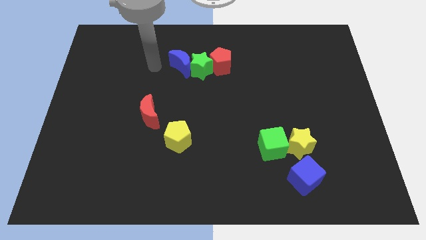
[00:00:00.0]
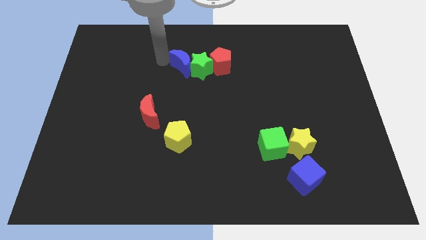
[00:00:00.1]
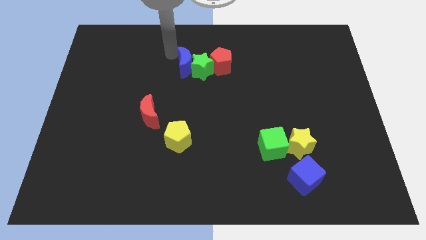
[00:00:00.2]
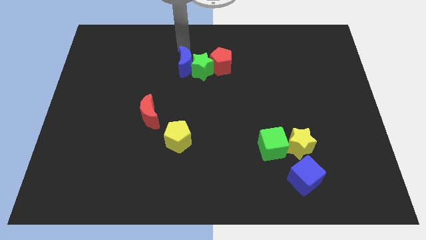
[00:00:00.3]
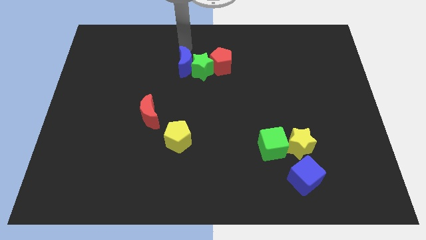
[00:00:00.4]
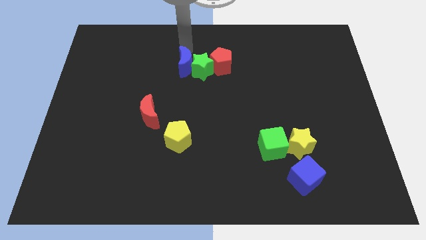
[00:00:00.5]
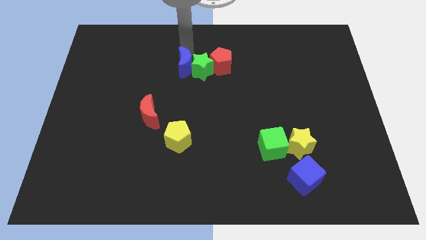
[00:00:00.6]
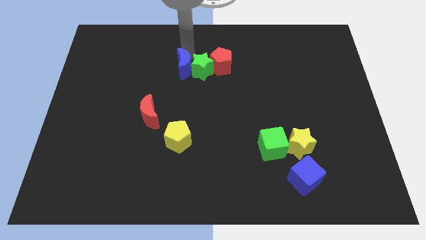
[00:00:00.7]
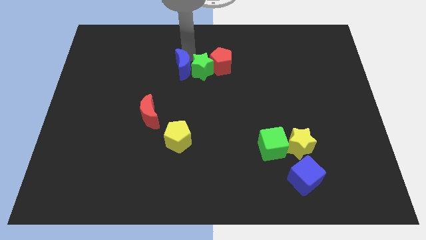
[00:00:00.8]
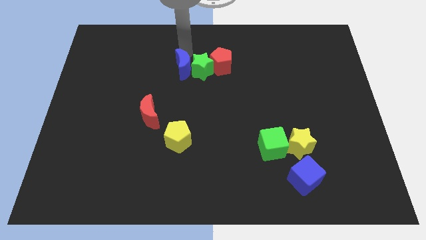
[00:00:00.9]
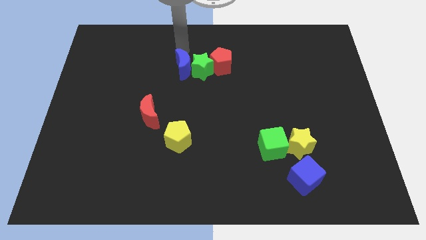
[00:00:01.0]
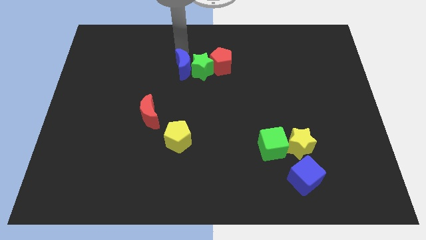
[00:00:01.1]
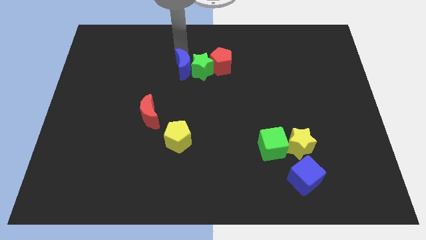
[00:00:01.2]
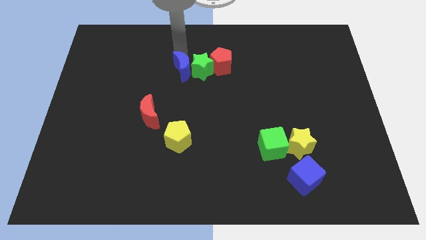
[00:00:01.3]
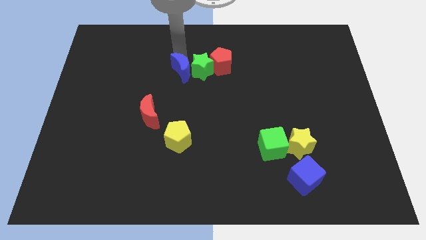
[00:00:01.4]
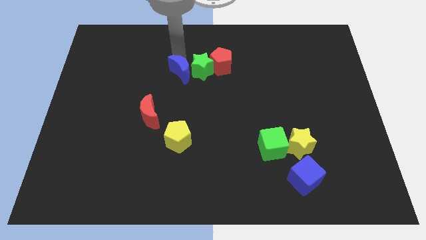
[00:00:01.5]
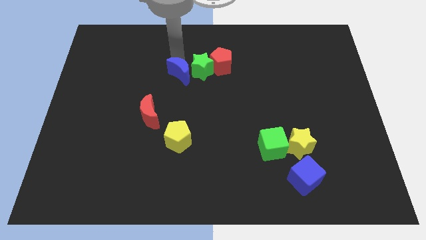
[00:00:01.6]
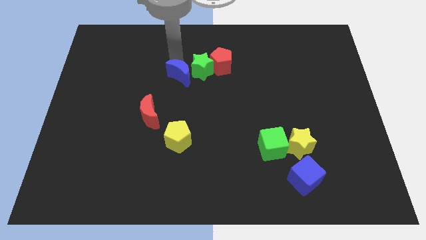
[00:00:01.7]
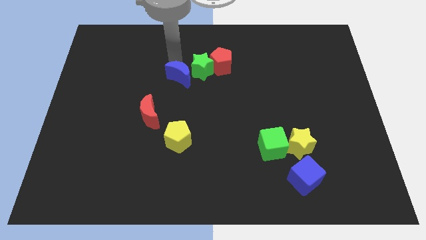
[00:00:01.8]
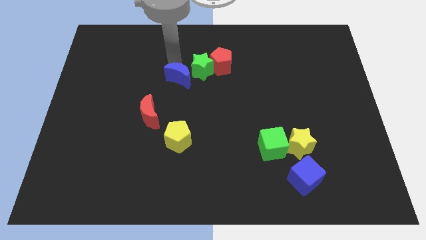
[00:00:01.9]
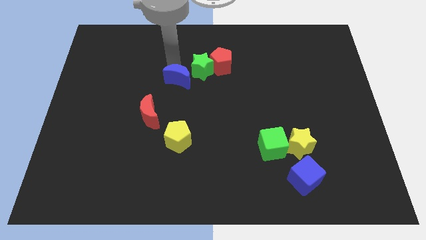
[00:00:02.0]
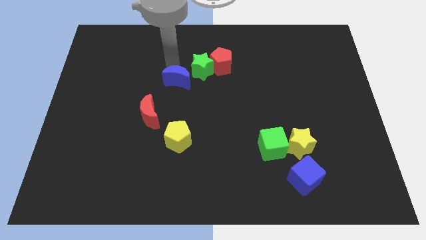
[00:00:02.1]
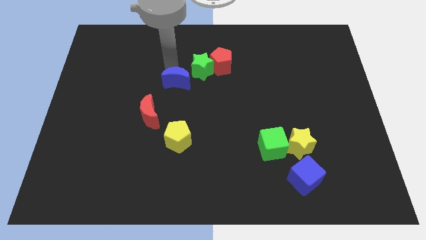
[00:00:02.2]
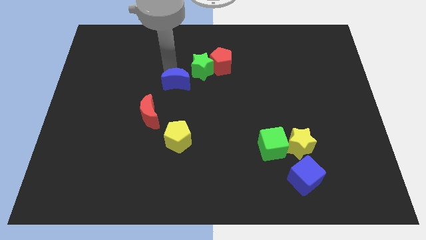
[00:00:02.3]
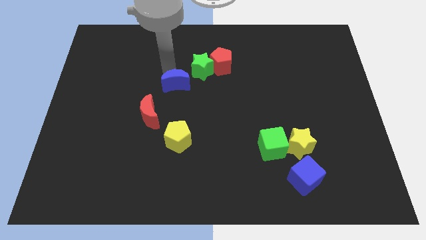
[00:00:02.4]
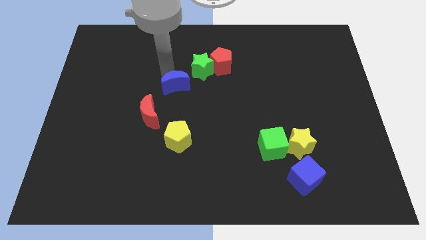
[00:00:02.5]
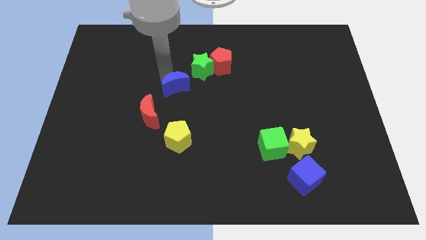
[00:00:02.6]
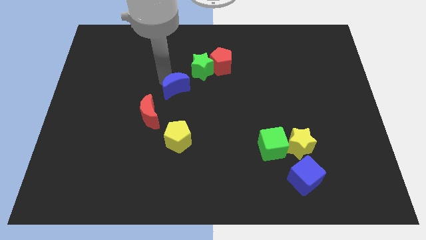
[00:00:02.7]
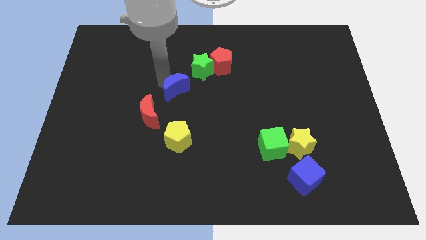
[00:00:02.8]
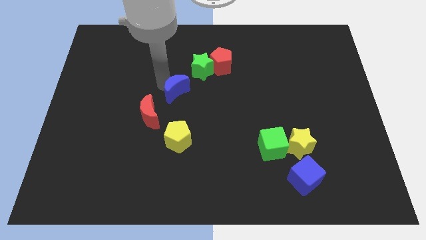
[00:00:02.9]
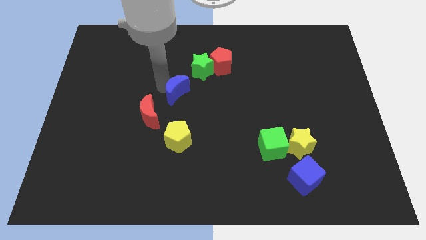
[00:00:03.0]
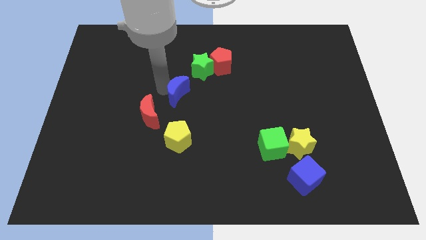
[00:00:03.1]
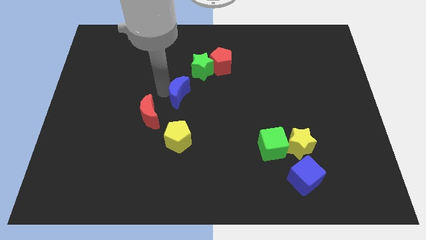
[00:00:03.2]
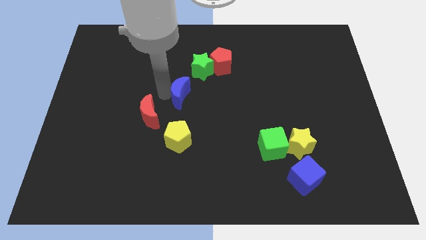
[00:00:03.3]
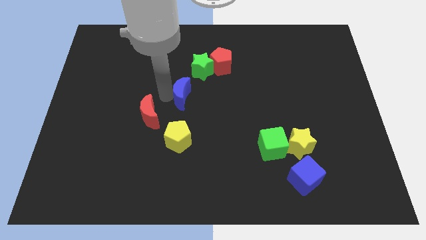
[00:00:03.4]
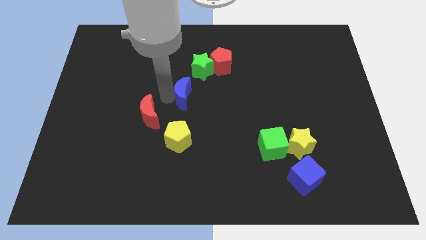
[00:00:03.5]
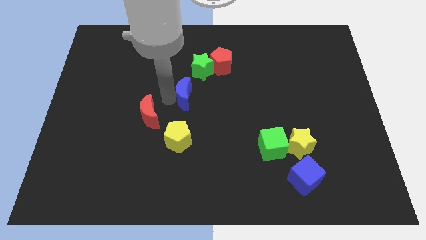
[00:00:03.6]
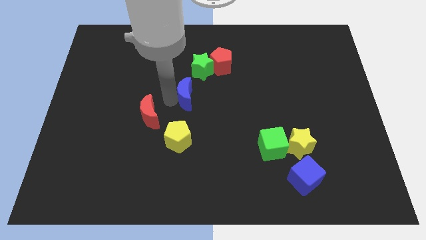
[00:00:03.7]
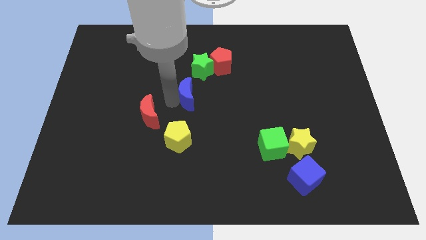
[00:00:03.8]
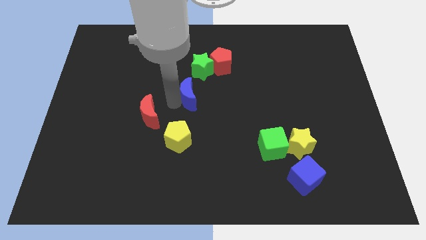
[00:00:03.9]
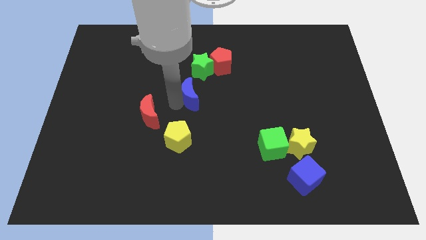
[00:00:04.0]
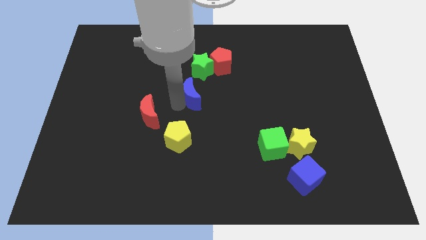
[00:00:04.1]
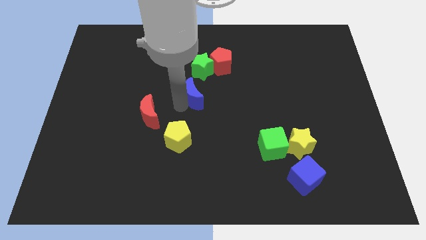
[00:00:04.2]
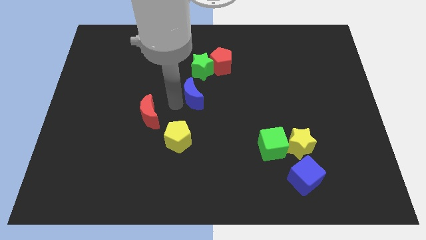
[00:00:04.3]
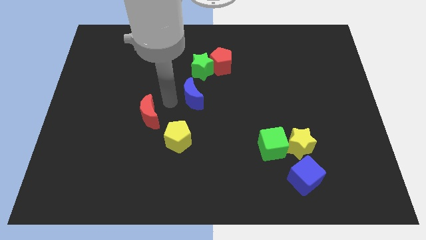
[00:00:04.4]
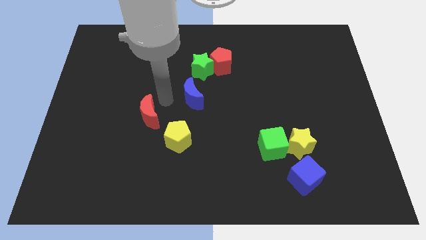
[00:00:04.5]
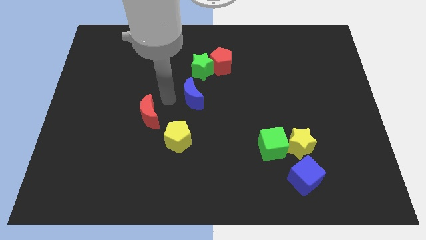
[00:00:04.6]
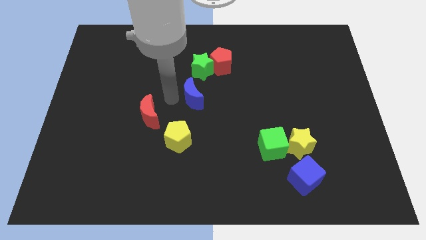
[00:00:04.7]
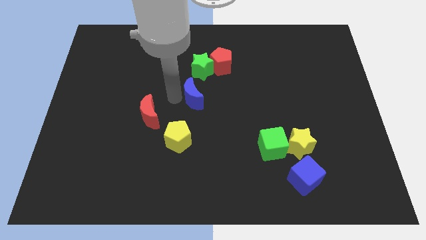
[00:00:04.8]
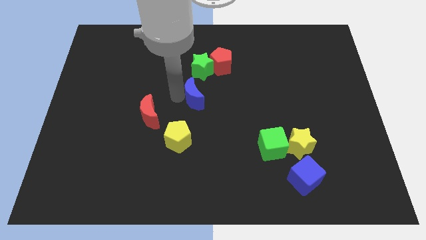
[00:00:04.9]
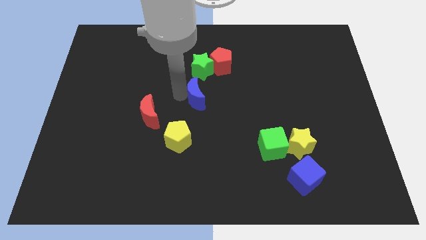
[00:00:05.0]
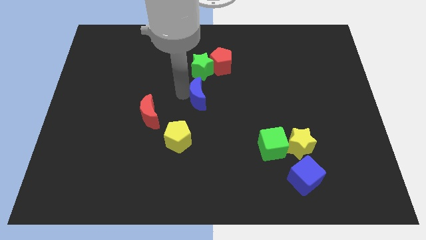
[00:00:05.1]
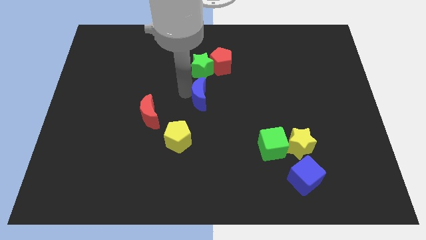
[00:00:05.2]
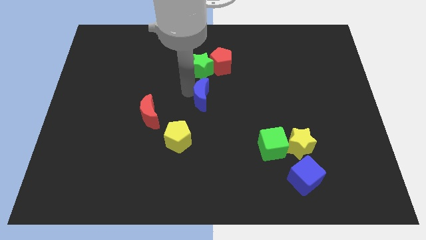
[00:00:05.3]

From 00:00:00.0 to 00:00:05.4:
move the blue moon to the bottom side of the red pentagon
